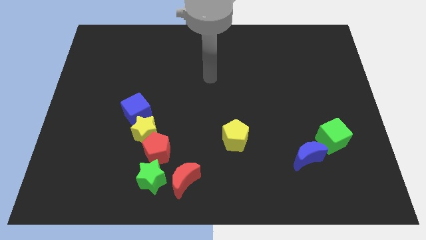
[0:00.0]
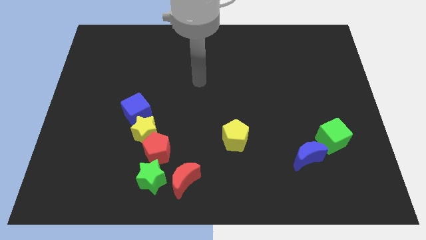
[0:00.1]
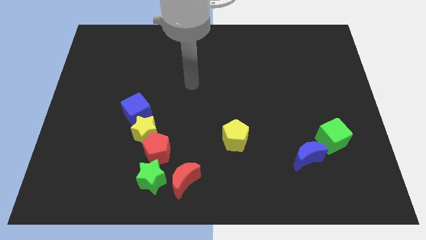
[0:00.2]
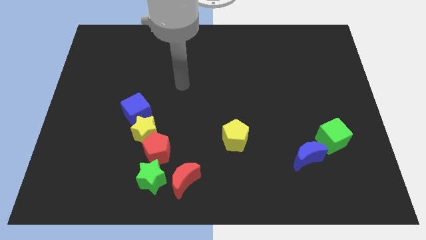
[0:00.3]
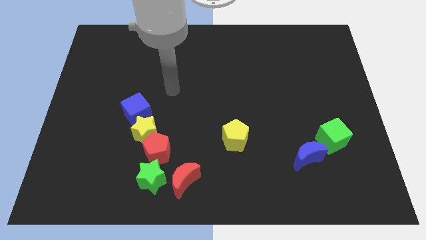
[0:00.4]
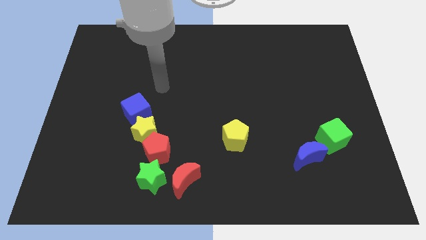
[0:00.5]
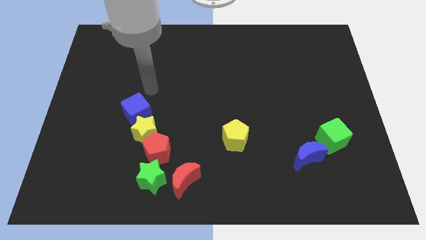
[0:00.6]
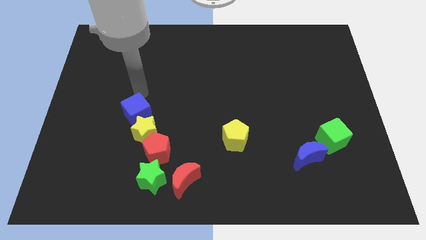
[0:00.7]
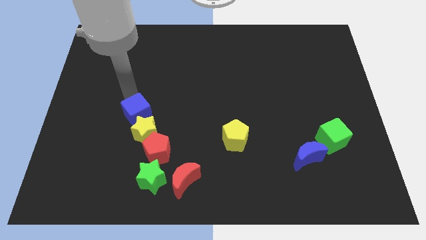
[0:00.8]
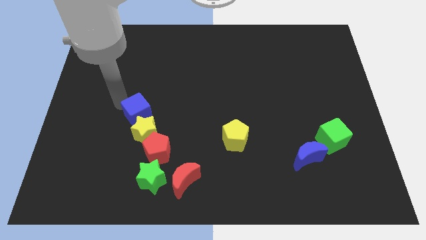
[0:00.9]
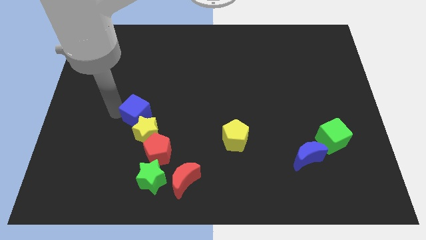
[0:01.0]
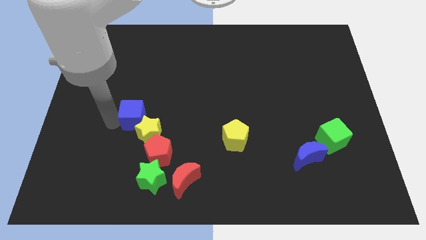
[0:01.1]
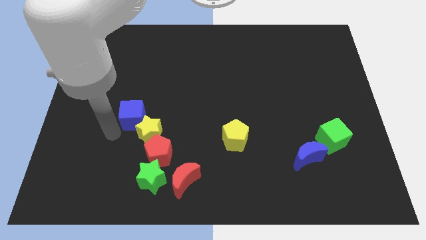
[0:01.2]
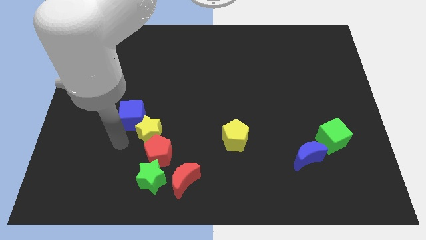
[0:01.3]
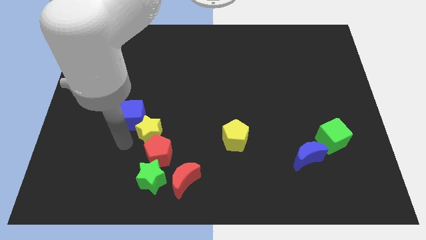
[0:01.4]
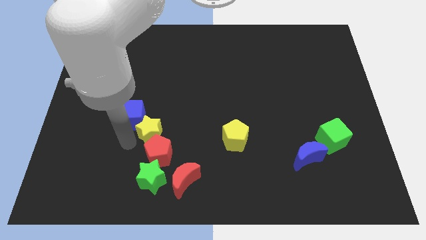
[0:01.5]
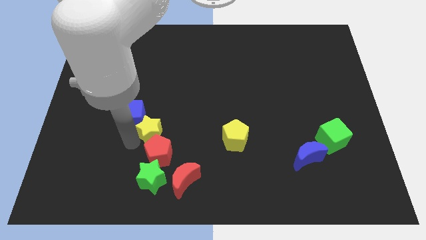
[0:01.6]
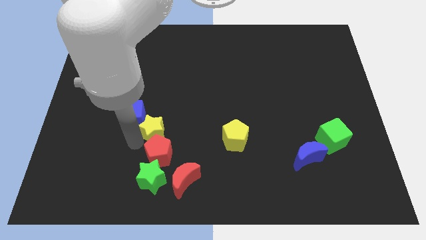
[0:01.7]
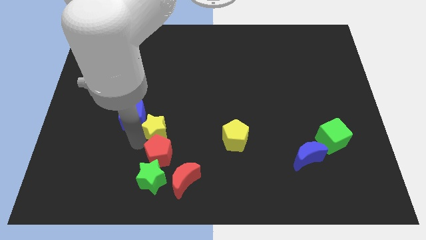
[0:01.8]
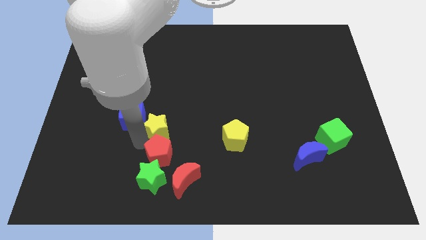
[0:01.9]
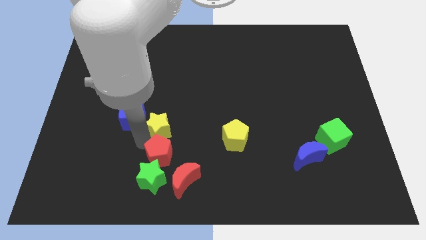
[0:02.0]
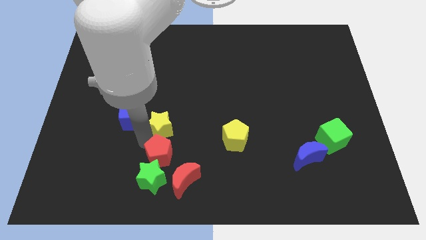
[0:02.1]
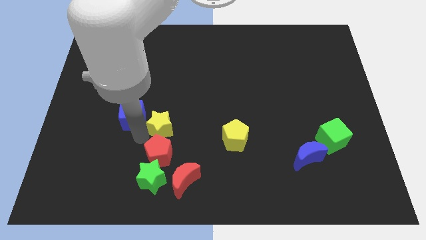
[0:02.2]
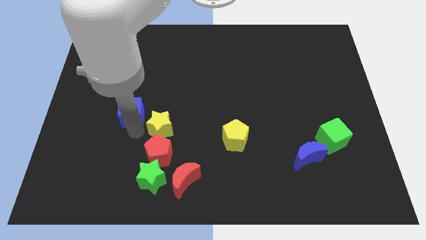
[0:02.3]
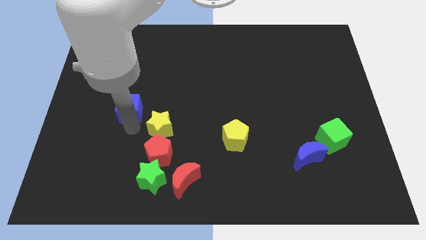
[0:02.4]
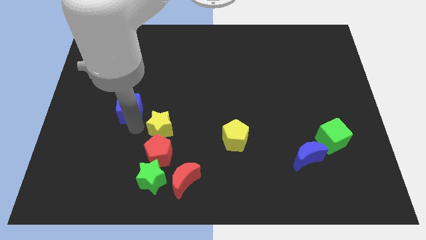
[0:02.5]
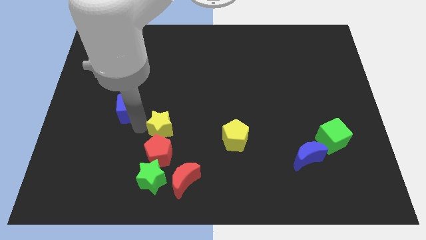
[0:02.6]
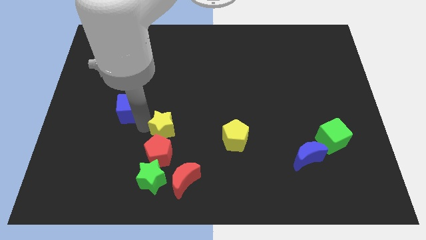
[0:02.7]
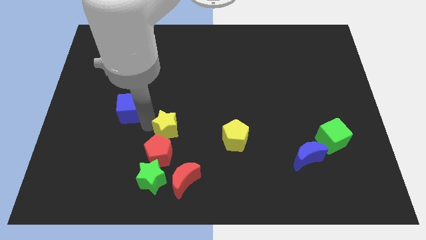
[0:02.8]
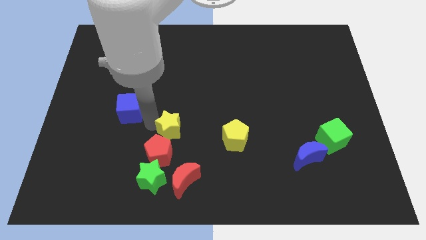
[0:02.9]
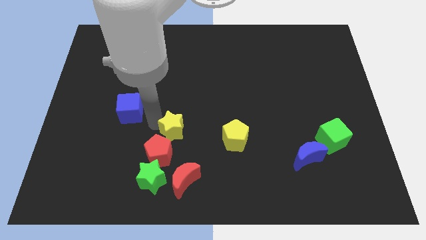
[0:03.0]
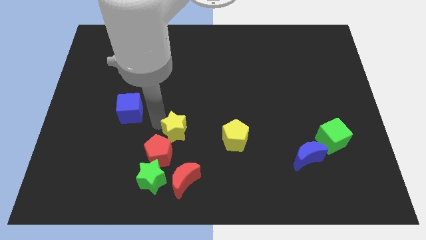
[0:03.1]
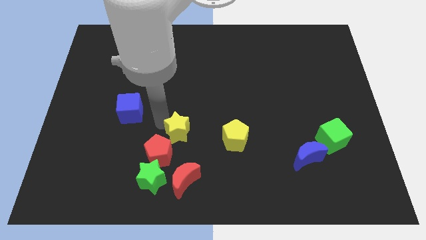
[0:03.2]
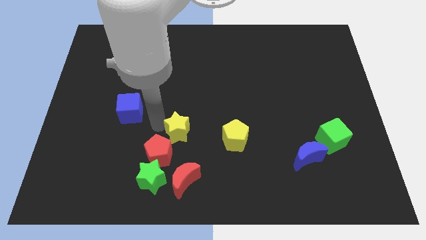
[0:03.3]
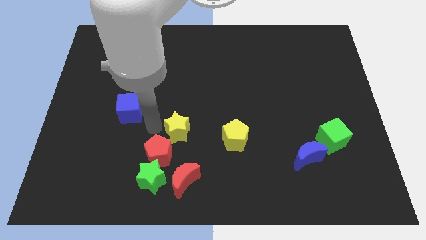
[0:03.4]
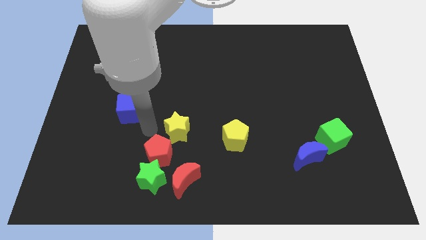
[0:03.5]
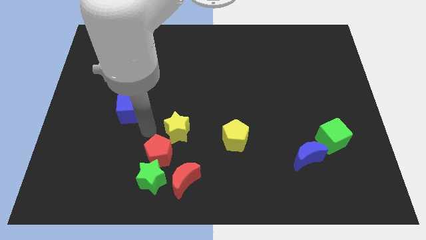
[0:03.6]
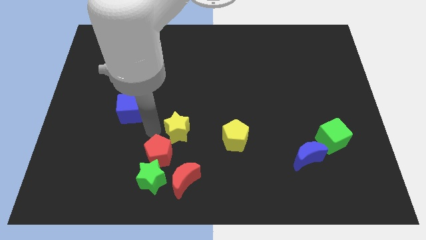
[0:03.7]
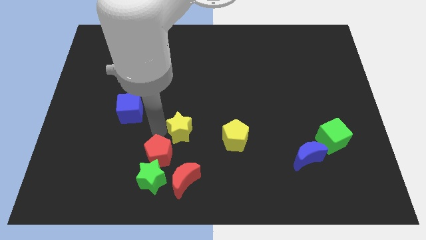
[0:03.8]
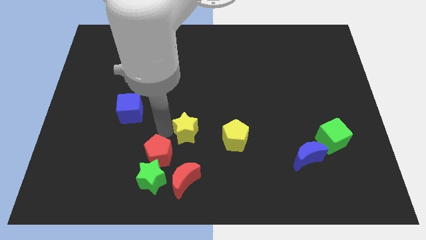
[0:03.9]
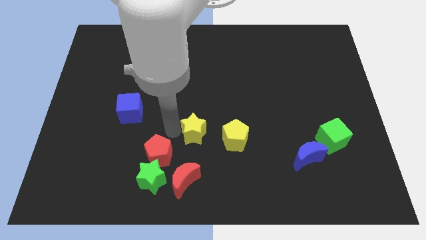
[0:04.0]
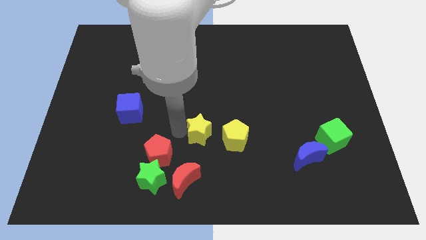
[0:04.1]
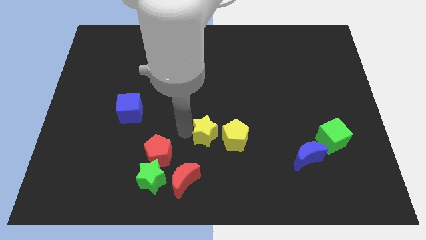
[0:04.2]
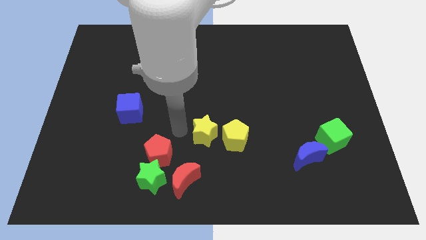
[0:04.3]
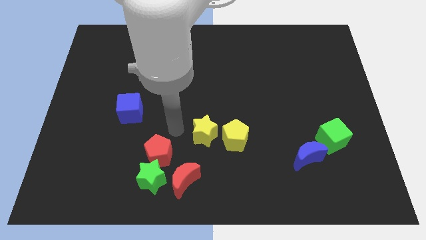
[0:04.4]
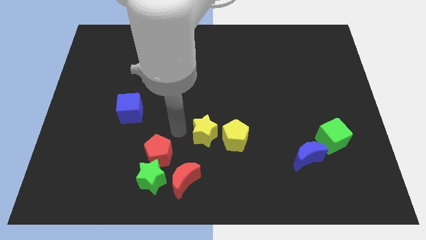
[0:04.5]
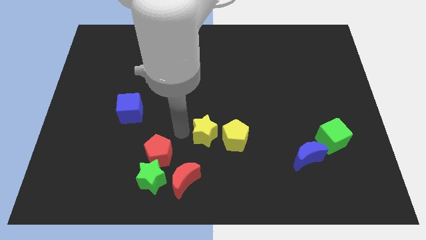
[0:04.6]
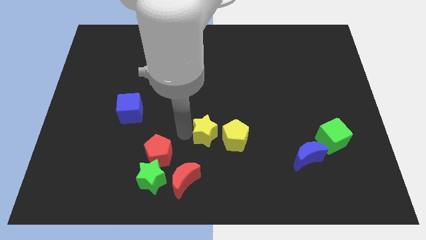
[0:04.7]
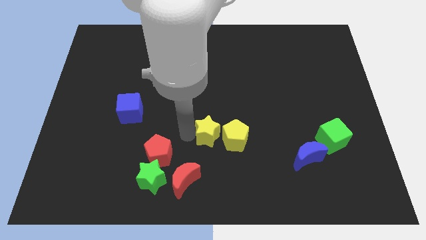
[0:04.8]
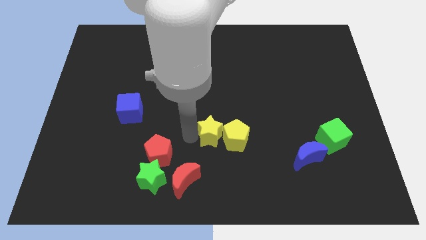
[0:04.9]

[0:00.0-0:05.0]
push the yellow star towards the yellow pentagon

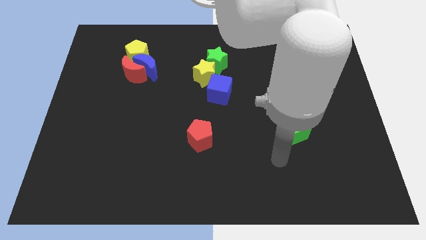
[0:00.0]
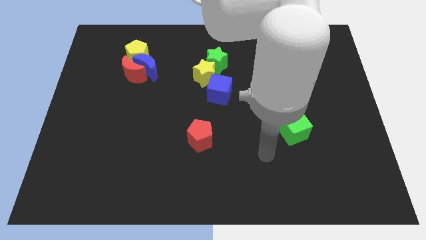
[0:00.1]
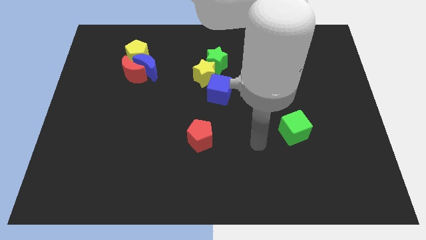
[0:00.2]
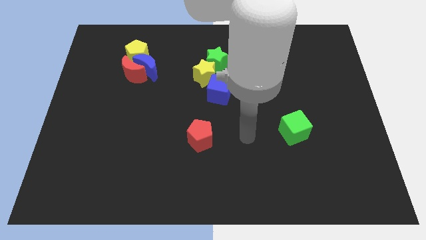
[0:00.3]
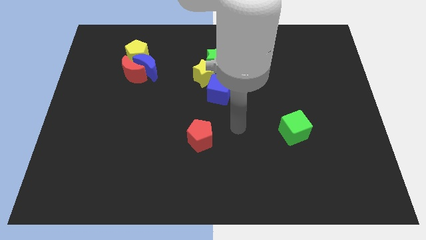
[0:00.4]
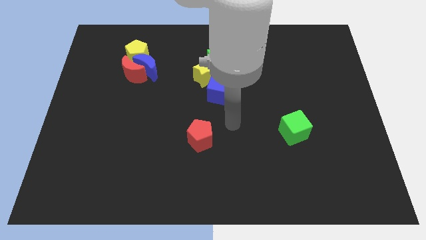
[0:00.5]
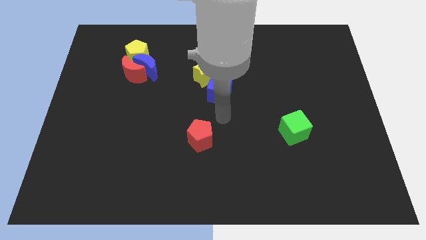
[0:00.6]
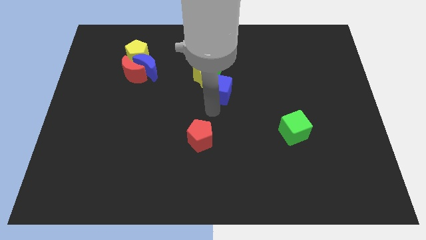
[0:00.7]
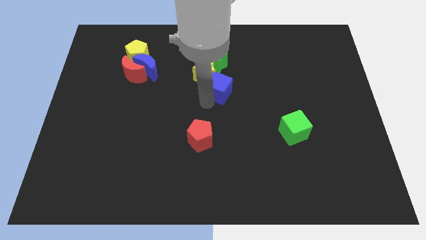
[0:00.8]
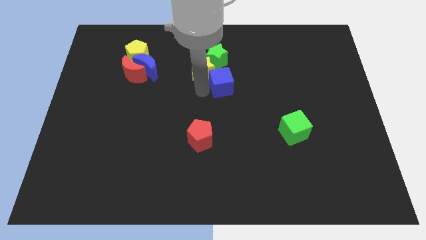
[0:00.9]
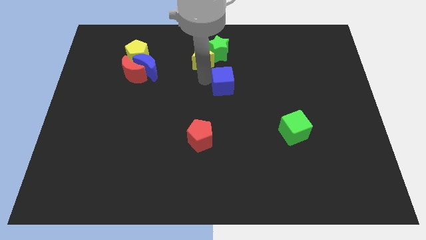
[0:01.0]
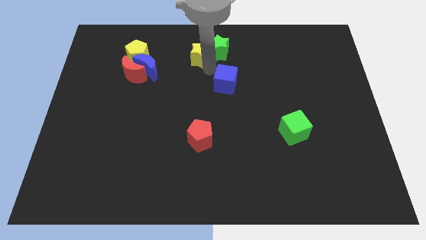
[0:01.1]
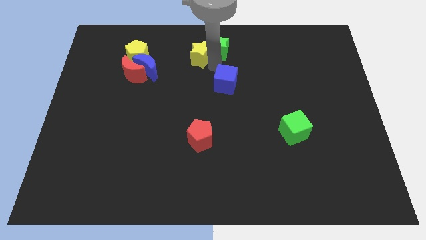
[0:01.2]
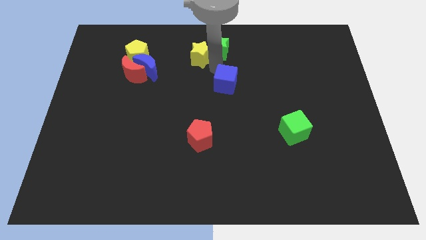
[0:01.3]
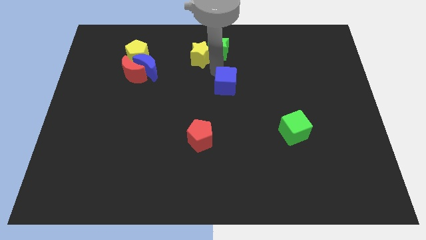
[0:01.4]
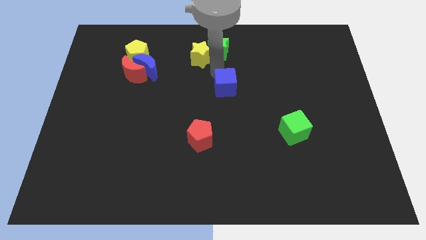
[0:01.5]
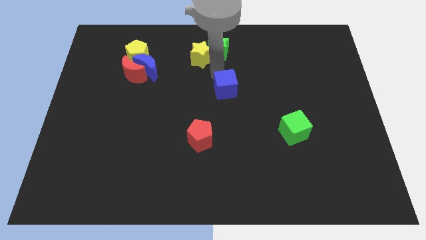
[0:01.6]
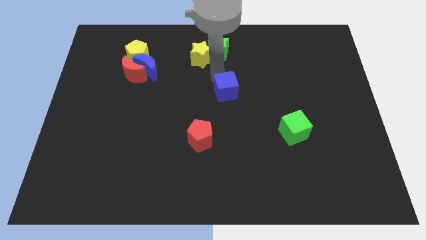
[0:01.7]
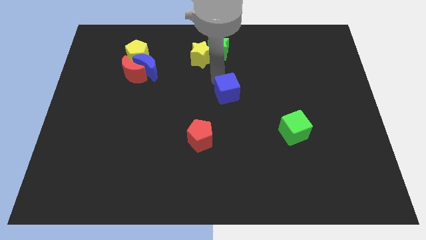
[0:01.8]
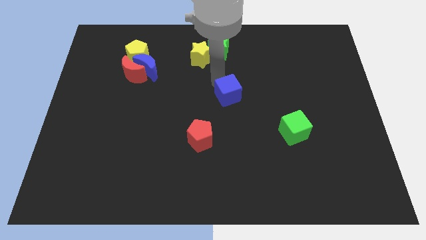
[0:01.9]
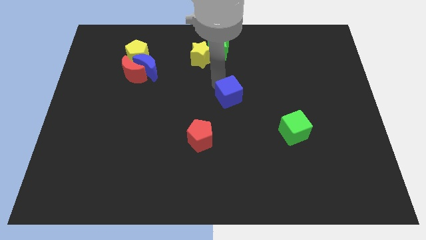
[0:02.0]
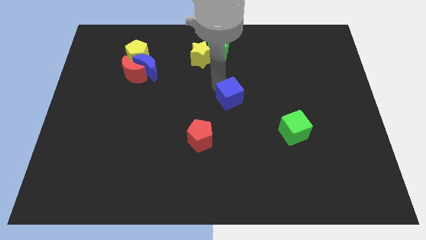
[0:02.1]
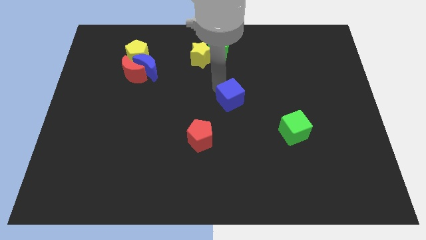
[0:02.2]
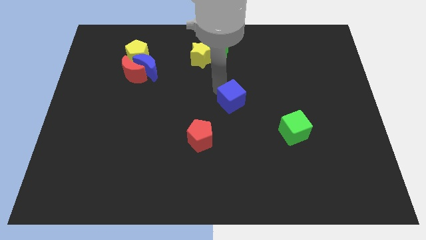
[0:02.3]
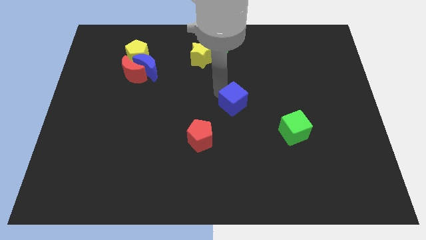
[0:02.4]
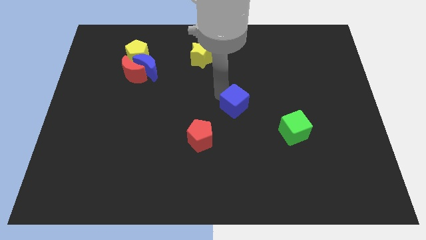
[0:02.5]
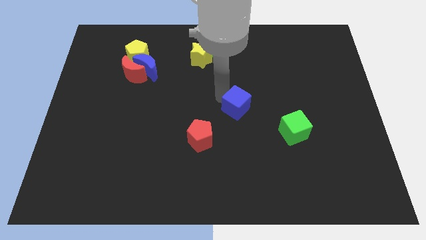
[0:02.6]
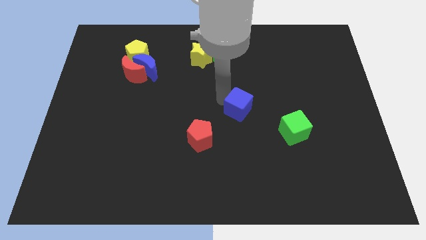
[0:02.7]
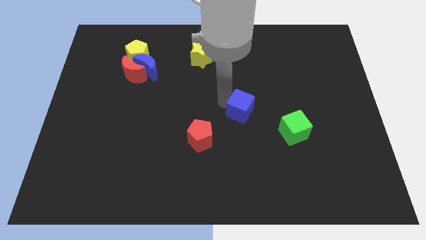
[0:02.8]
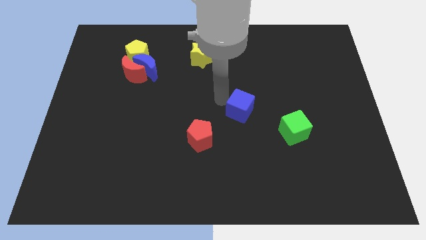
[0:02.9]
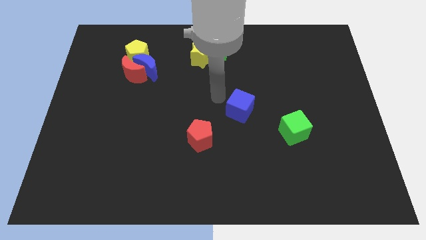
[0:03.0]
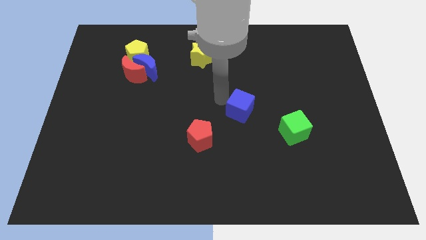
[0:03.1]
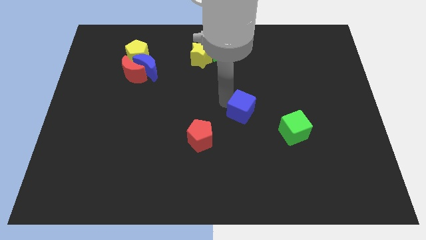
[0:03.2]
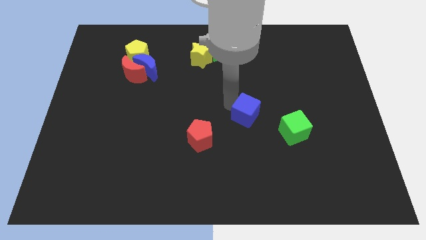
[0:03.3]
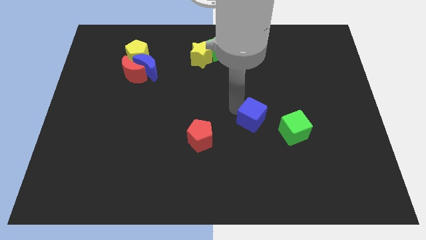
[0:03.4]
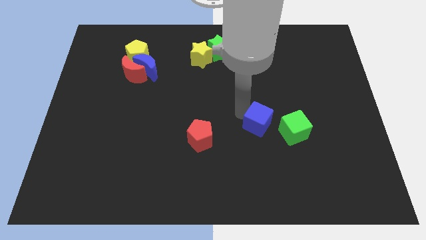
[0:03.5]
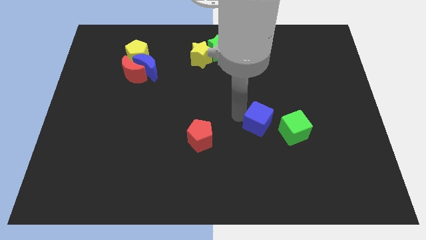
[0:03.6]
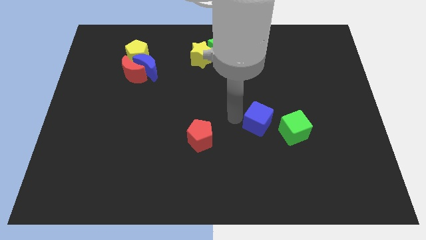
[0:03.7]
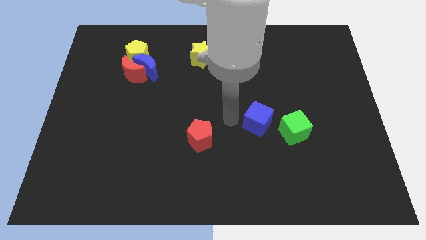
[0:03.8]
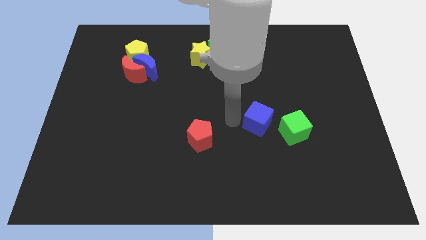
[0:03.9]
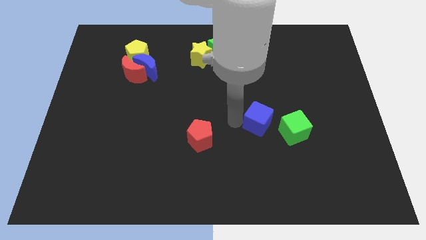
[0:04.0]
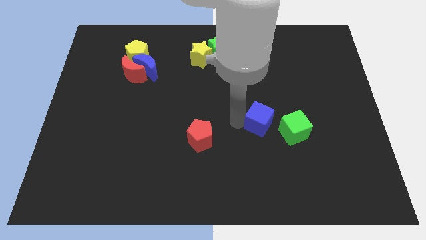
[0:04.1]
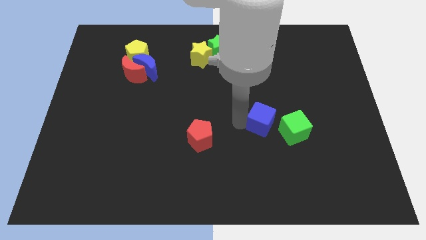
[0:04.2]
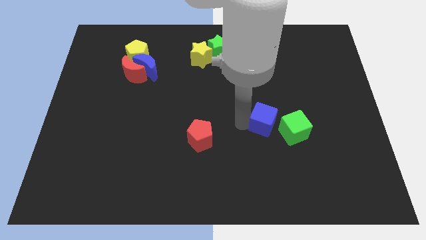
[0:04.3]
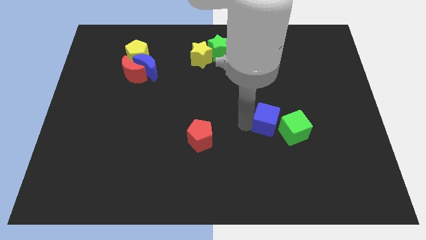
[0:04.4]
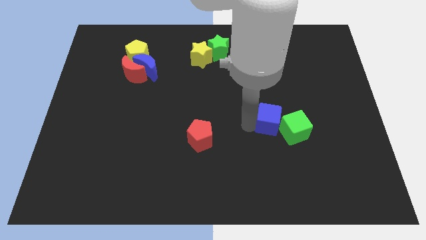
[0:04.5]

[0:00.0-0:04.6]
slide the blue cube to the green cube
